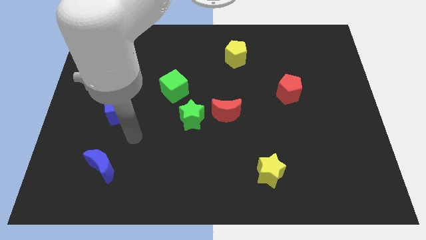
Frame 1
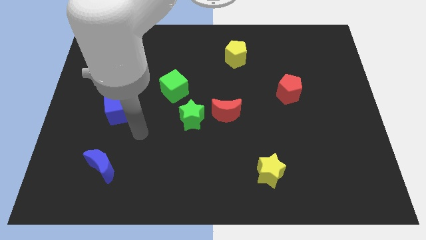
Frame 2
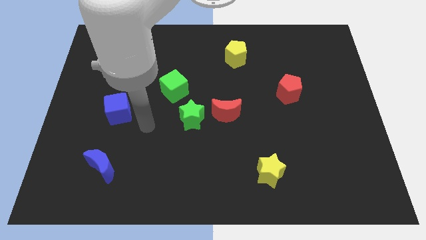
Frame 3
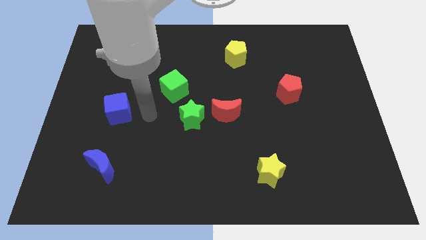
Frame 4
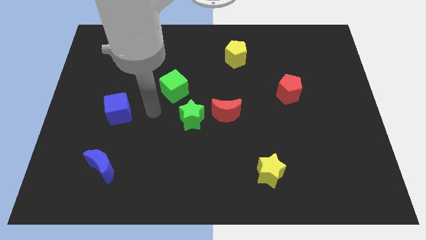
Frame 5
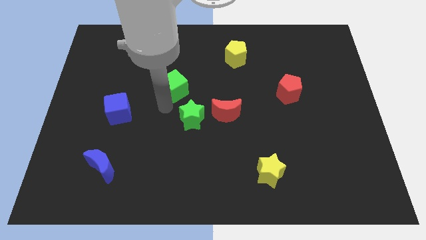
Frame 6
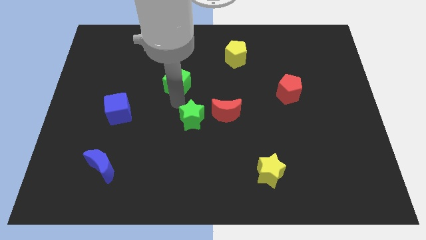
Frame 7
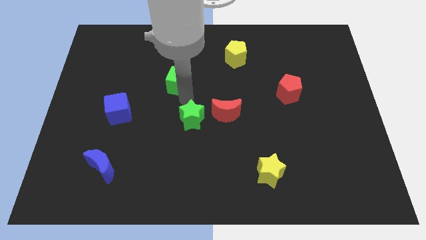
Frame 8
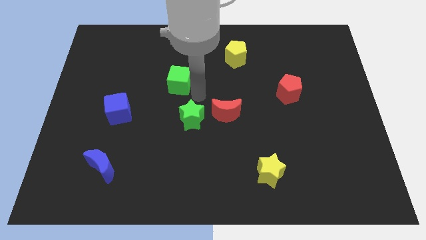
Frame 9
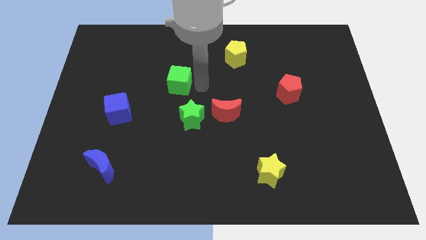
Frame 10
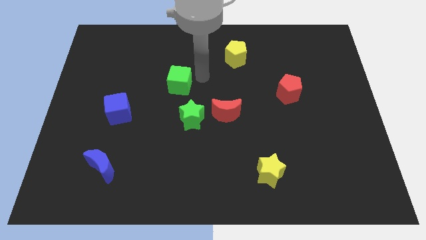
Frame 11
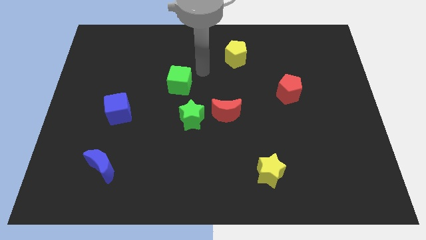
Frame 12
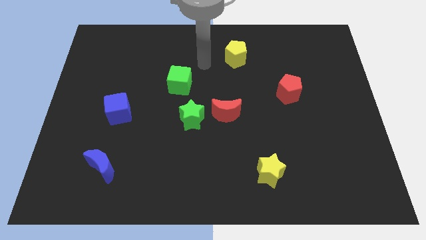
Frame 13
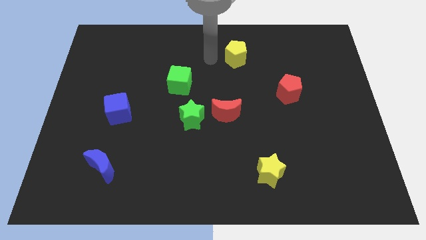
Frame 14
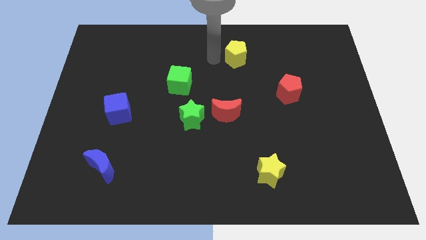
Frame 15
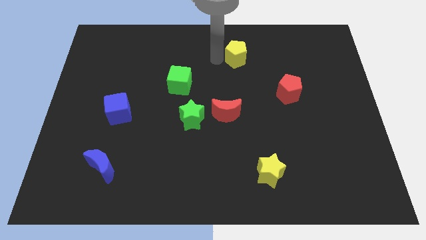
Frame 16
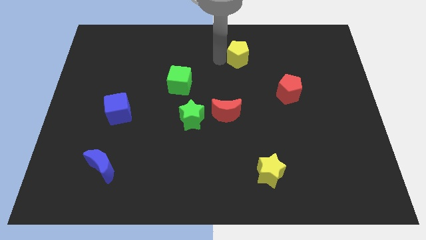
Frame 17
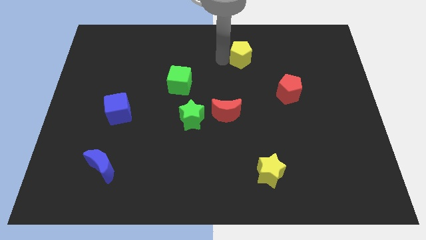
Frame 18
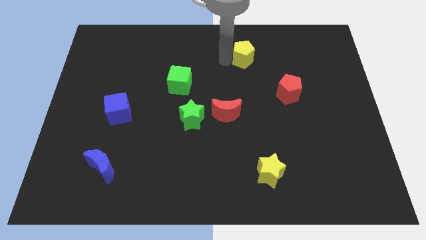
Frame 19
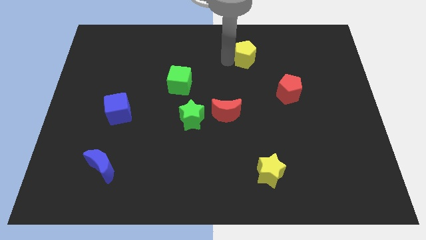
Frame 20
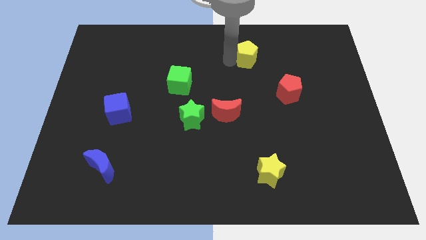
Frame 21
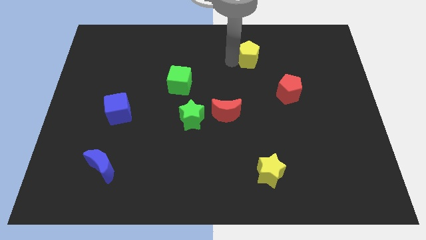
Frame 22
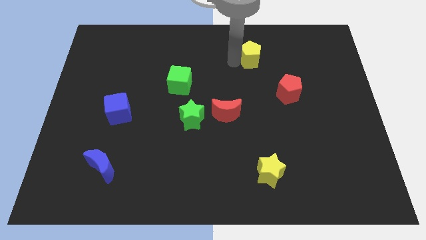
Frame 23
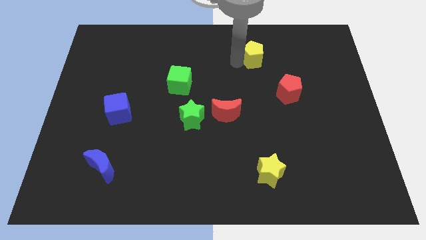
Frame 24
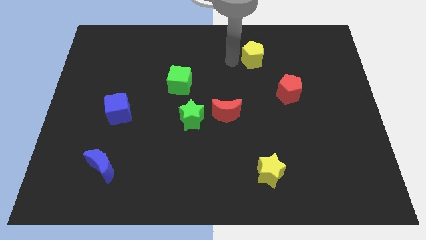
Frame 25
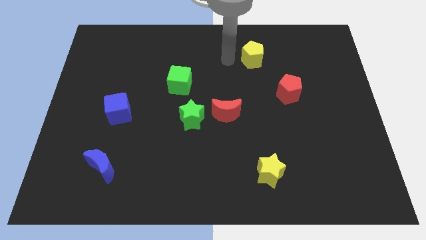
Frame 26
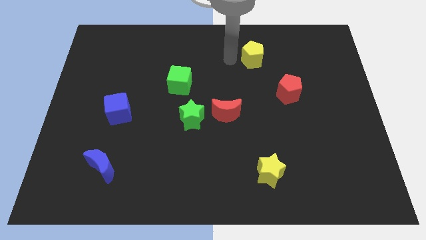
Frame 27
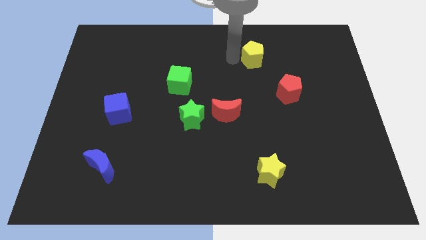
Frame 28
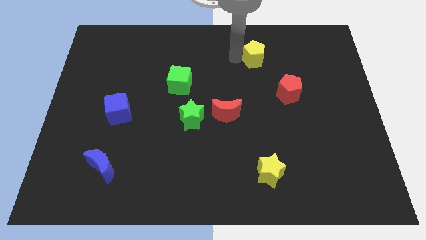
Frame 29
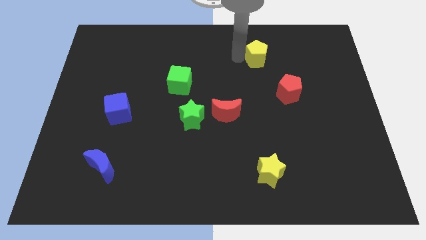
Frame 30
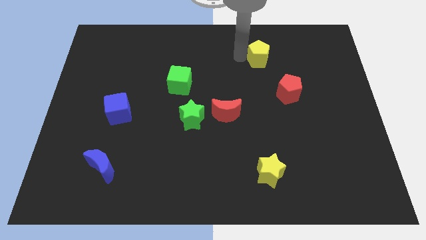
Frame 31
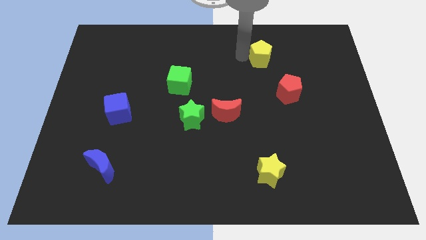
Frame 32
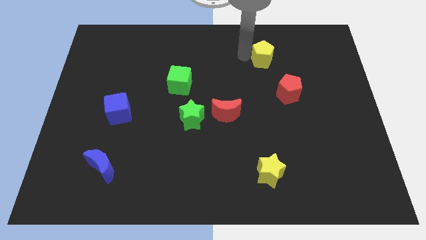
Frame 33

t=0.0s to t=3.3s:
move the yellow pentagon a little bit right

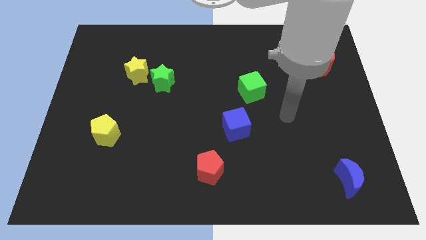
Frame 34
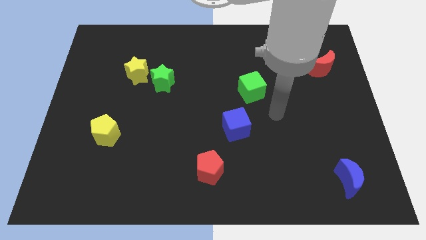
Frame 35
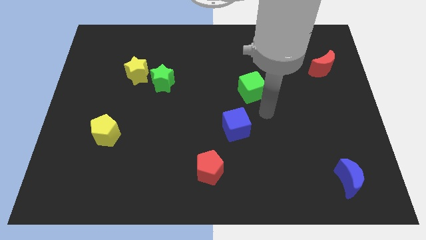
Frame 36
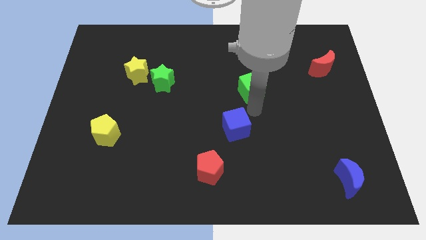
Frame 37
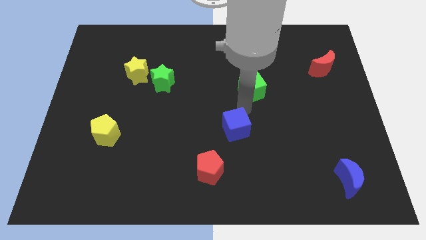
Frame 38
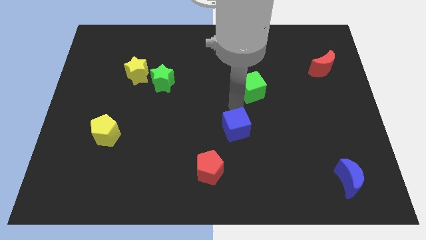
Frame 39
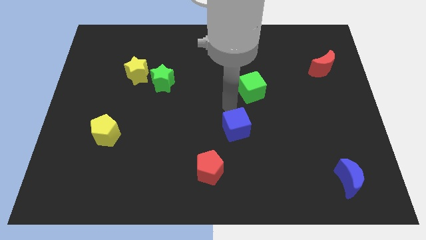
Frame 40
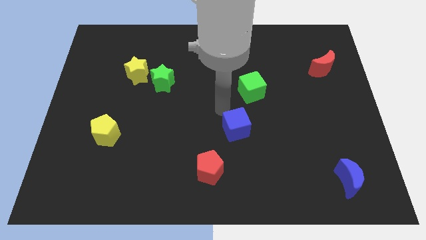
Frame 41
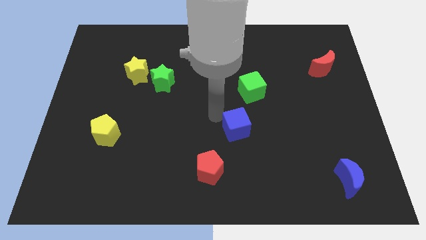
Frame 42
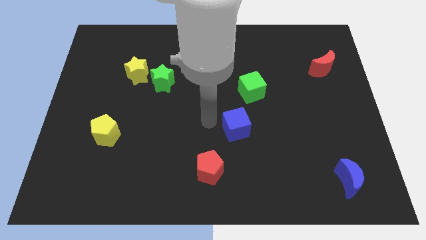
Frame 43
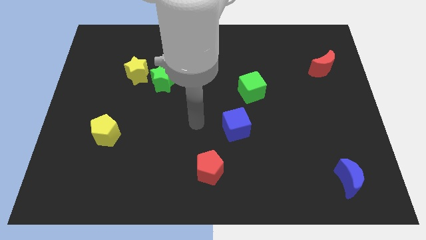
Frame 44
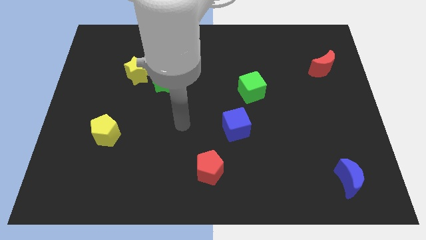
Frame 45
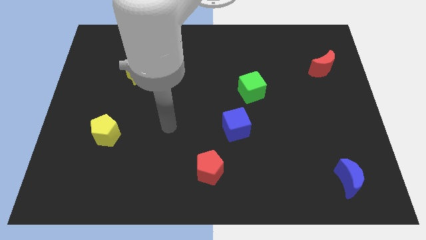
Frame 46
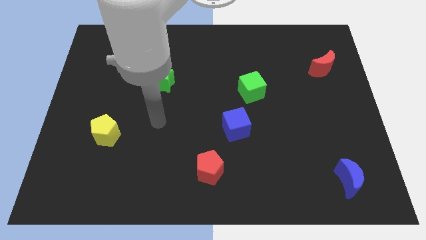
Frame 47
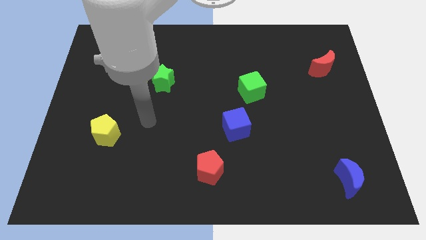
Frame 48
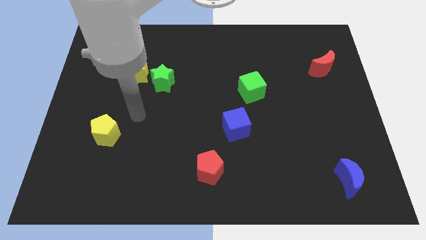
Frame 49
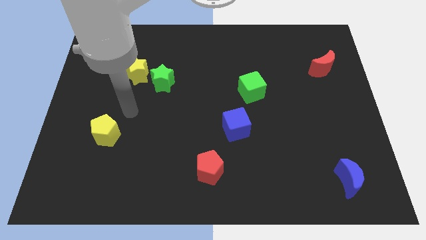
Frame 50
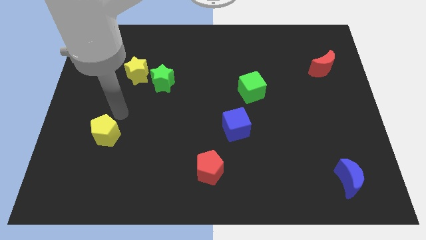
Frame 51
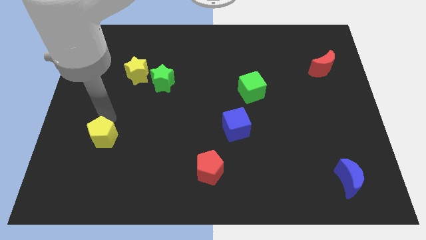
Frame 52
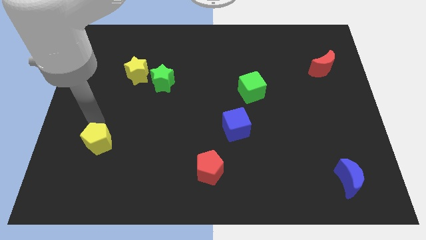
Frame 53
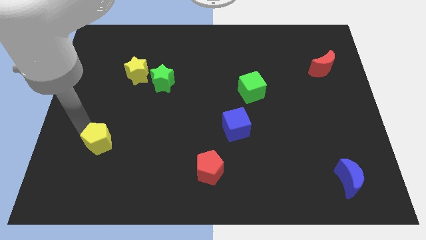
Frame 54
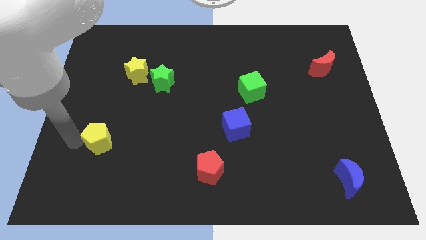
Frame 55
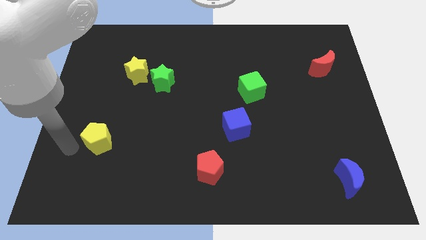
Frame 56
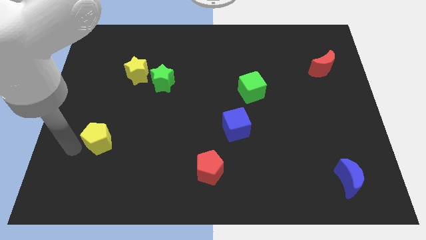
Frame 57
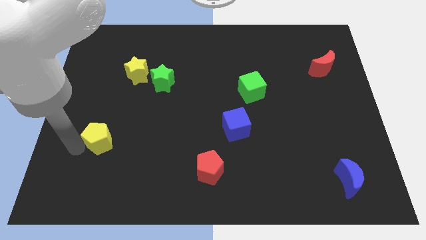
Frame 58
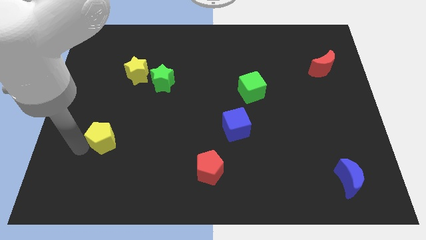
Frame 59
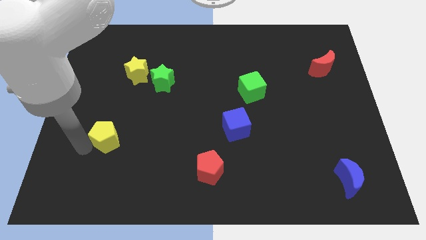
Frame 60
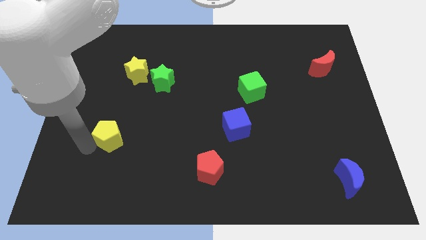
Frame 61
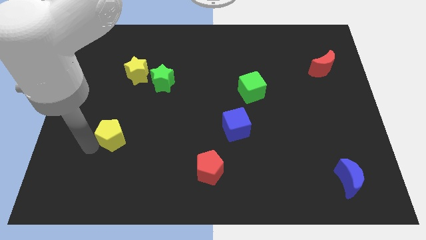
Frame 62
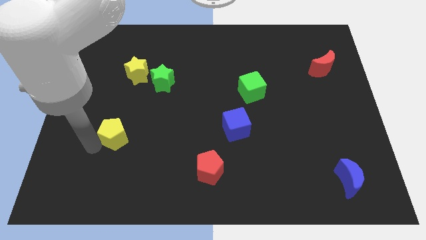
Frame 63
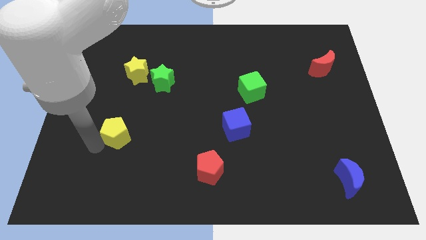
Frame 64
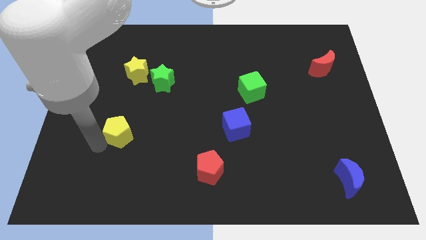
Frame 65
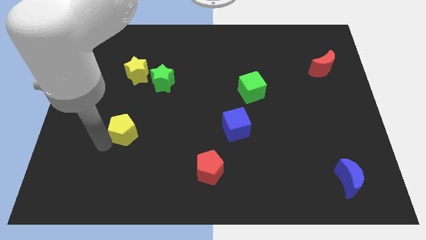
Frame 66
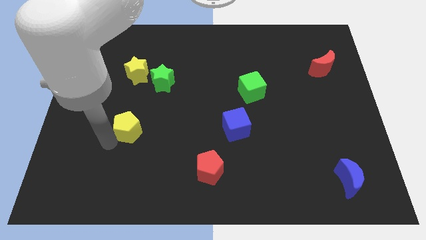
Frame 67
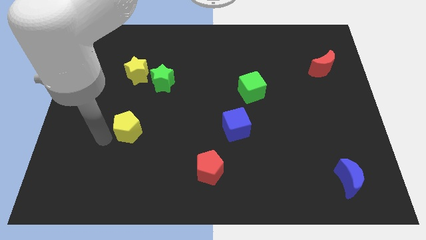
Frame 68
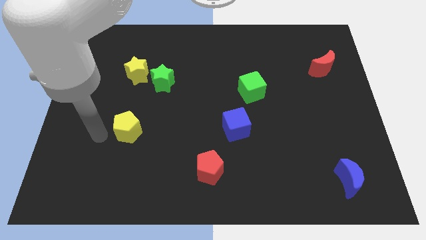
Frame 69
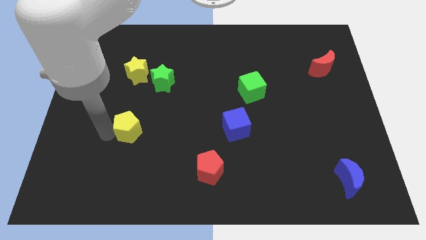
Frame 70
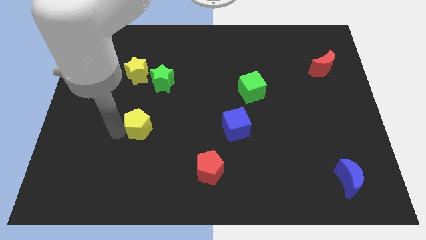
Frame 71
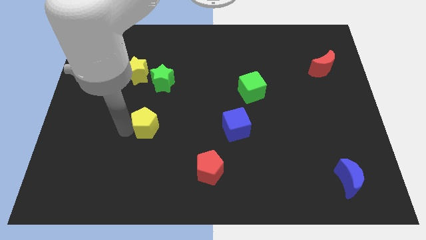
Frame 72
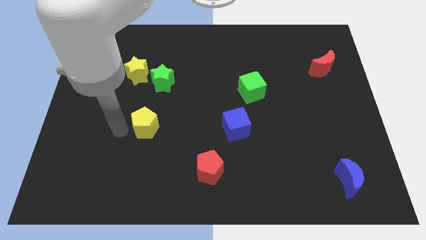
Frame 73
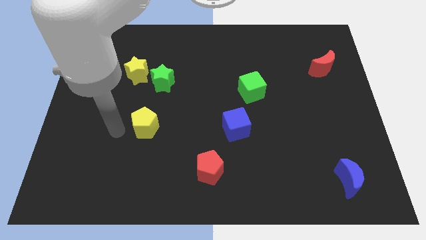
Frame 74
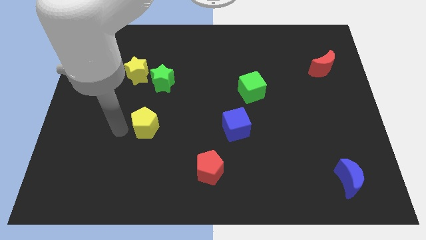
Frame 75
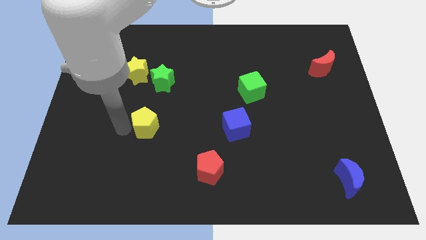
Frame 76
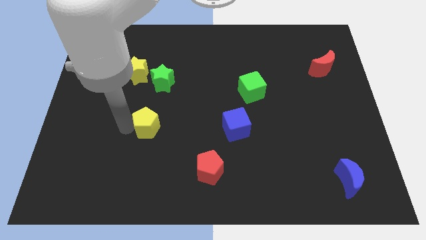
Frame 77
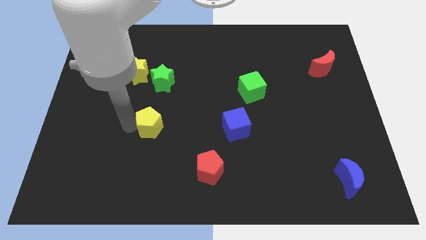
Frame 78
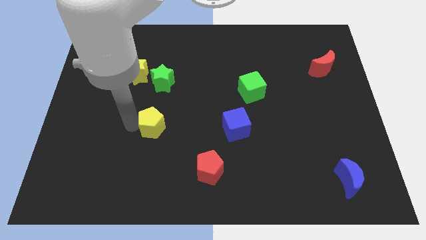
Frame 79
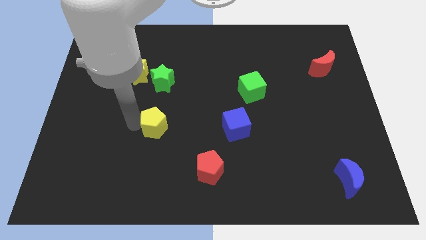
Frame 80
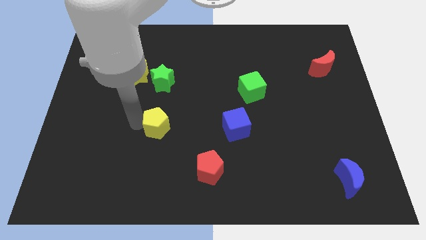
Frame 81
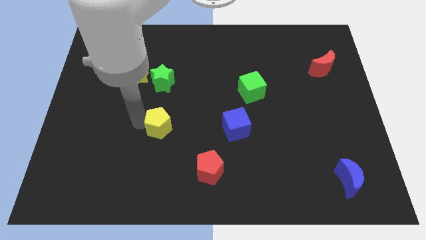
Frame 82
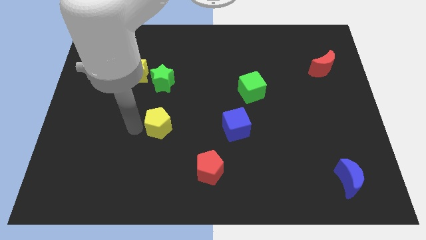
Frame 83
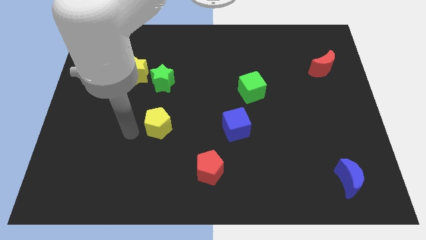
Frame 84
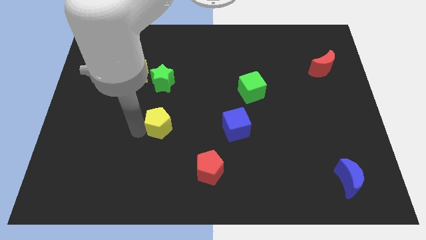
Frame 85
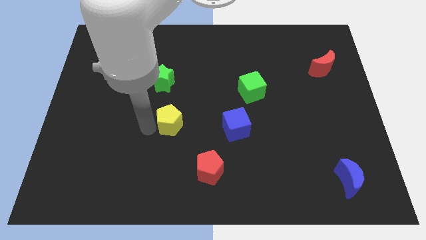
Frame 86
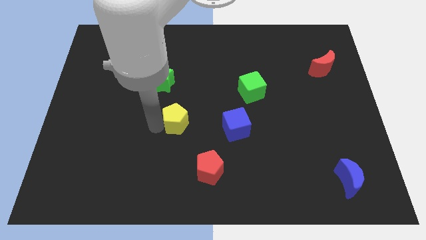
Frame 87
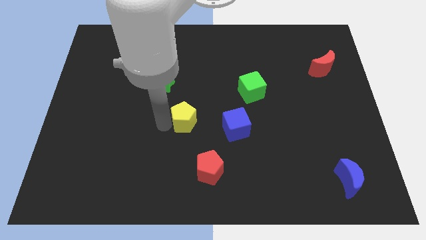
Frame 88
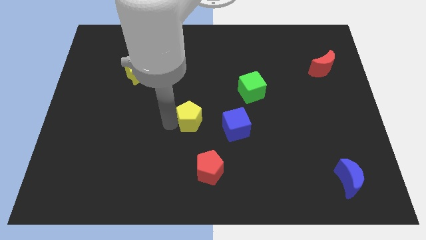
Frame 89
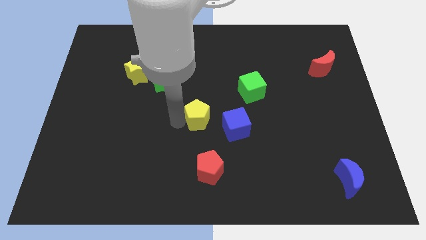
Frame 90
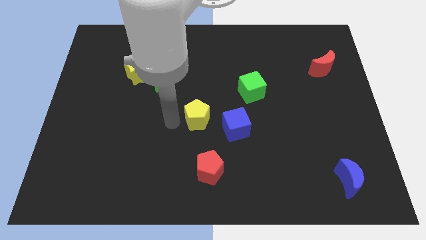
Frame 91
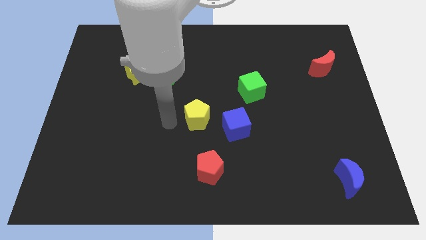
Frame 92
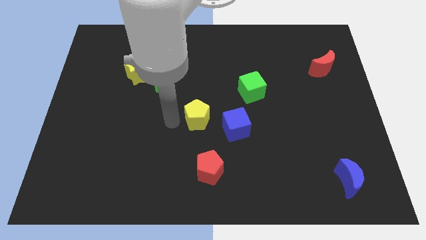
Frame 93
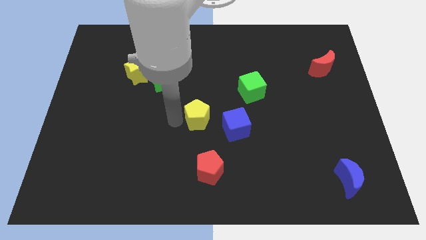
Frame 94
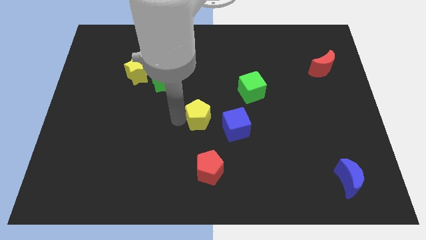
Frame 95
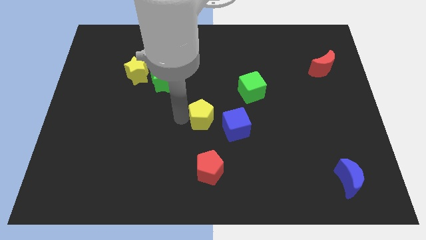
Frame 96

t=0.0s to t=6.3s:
slide the yellow pentagon to the right
